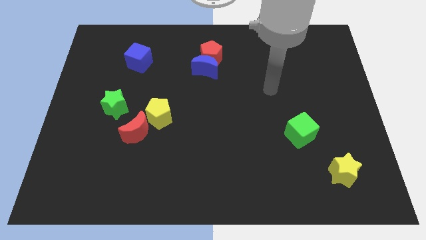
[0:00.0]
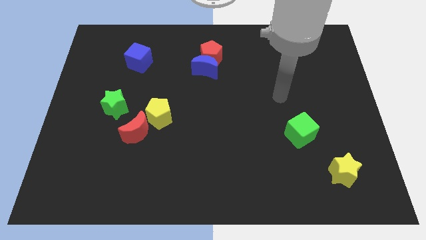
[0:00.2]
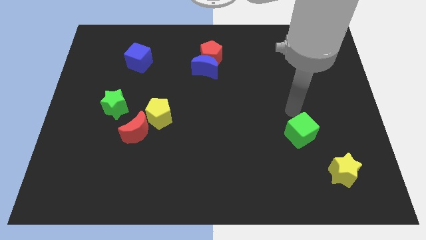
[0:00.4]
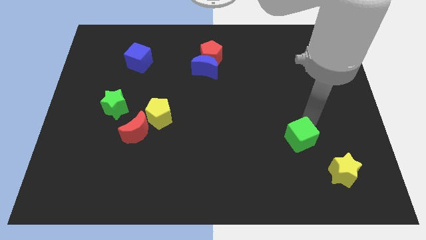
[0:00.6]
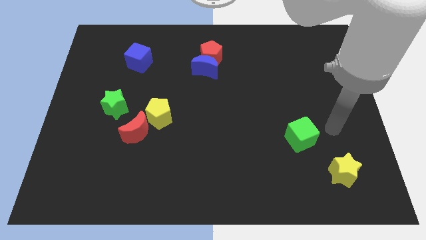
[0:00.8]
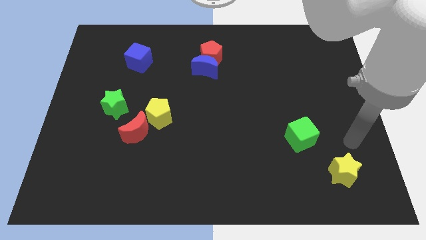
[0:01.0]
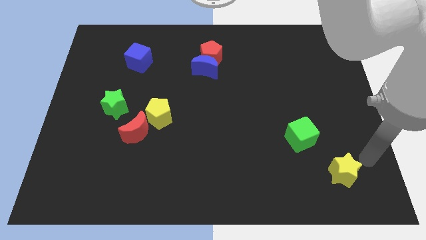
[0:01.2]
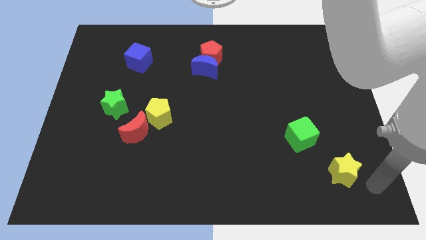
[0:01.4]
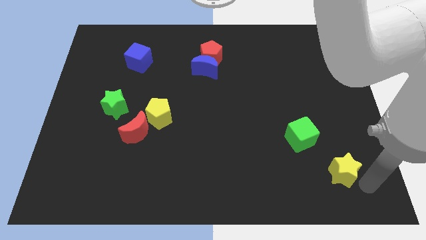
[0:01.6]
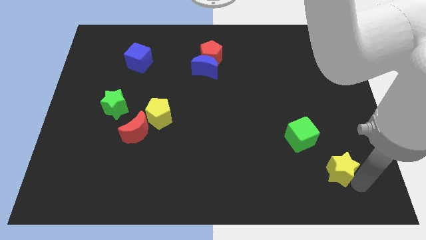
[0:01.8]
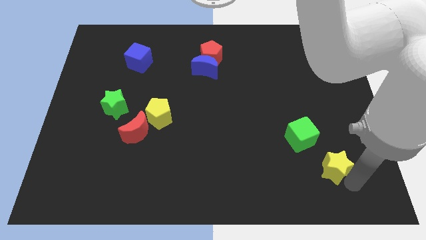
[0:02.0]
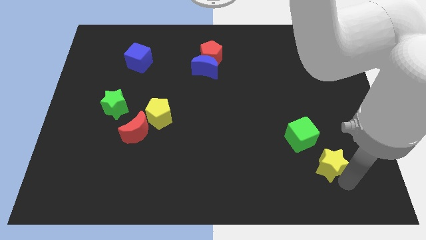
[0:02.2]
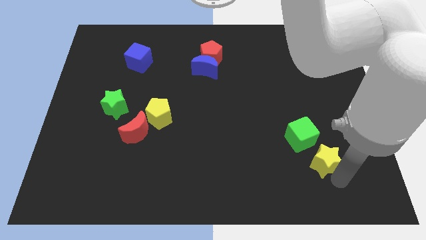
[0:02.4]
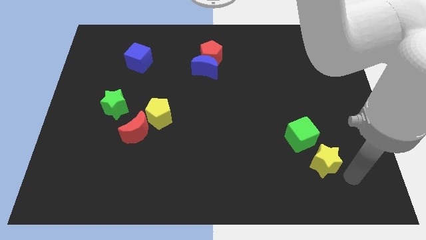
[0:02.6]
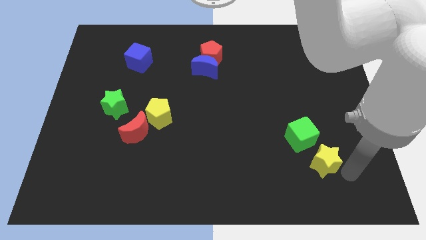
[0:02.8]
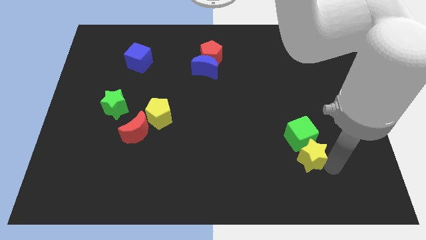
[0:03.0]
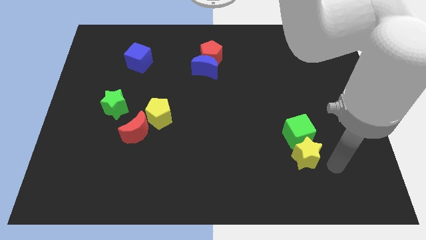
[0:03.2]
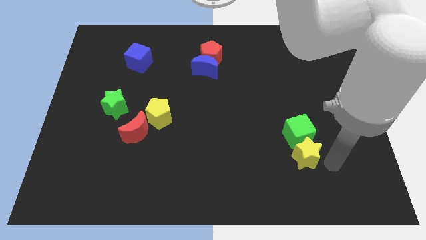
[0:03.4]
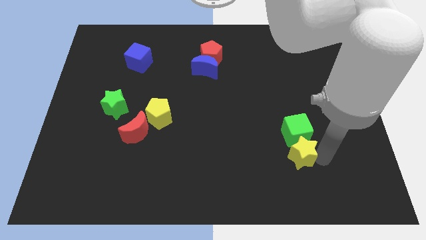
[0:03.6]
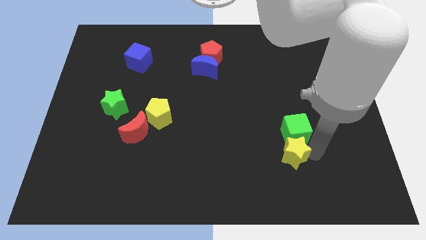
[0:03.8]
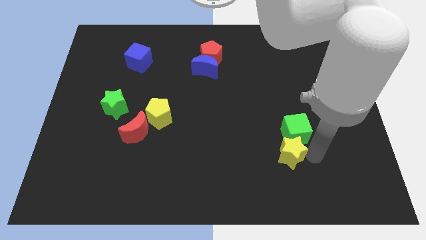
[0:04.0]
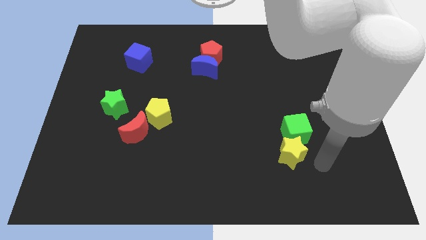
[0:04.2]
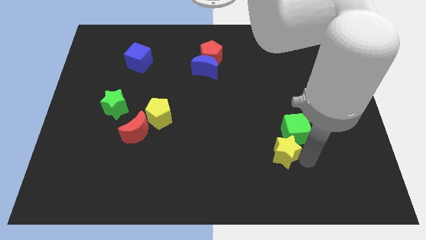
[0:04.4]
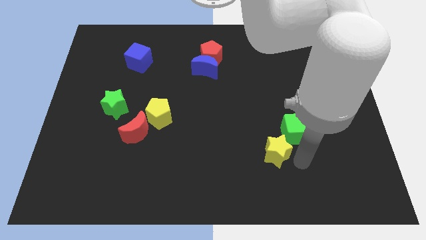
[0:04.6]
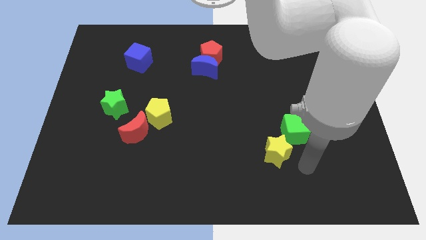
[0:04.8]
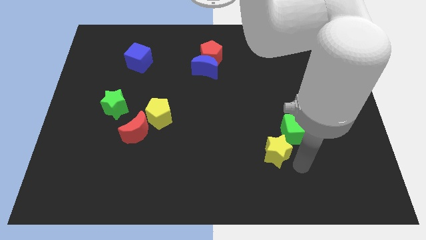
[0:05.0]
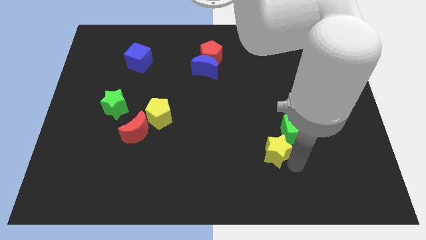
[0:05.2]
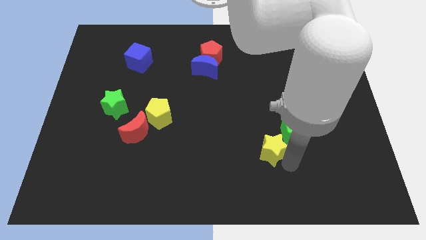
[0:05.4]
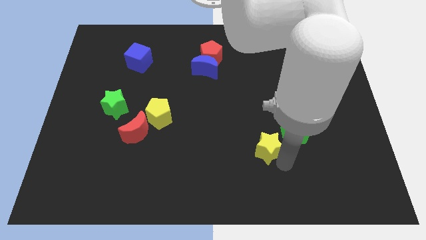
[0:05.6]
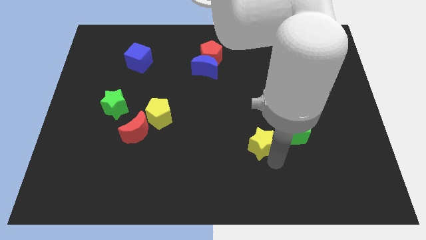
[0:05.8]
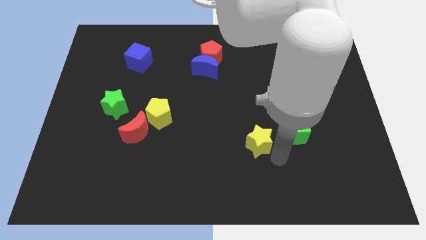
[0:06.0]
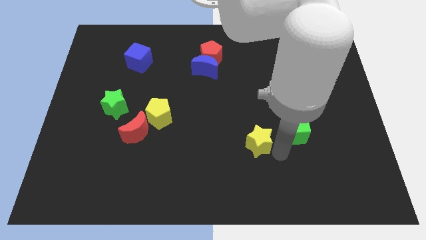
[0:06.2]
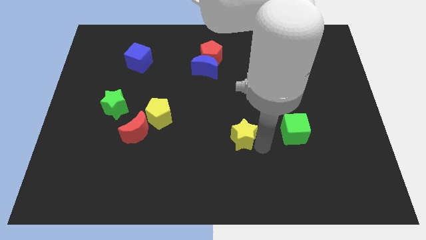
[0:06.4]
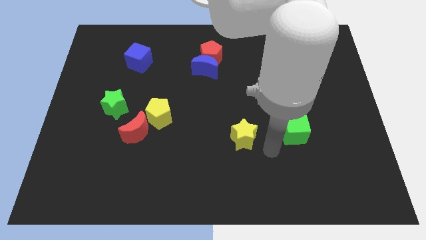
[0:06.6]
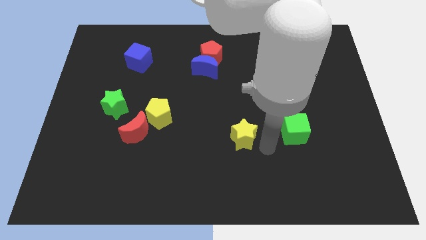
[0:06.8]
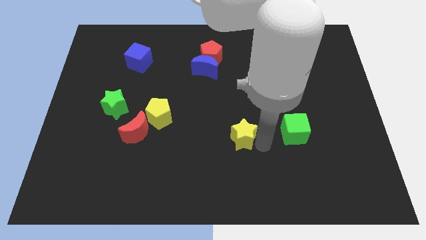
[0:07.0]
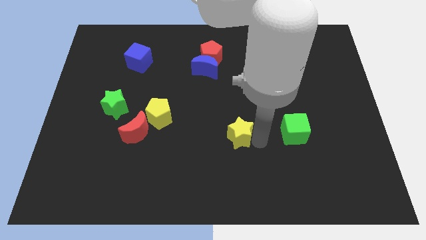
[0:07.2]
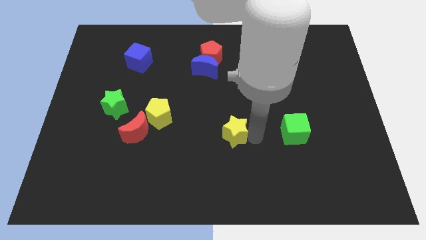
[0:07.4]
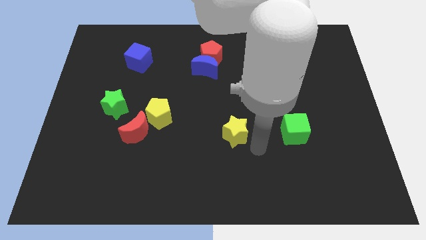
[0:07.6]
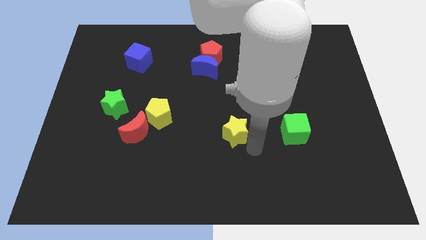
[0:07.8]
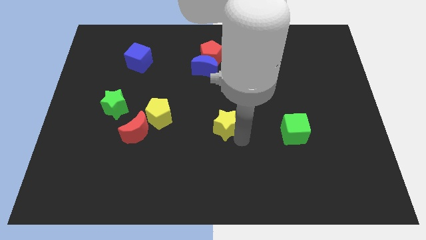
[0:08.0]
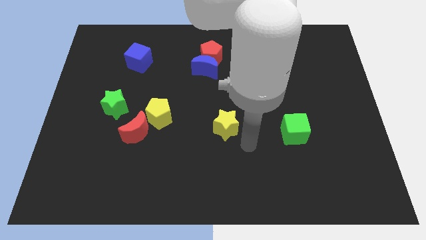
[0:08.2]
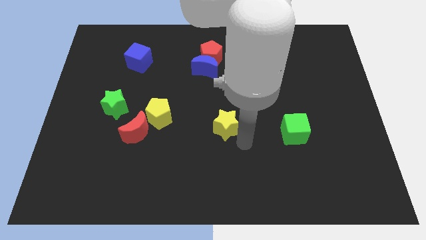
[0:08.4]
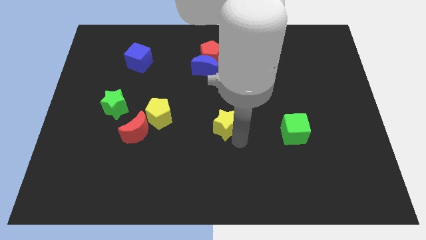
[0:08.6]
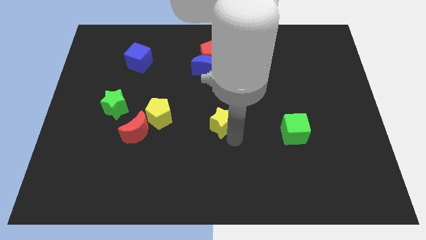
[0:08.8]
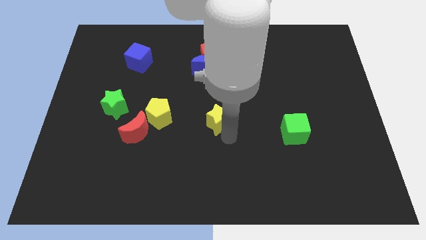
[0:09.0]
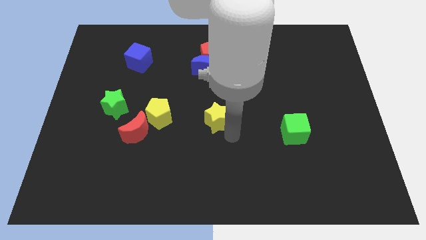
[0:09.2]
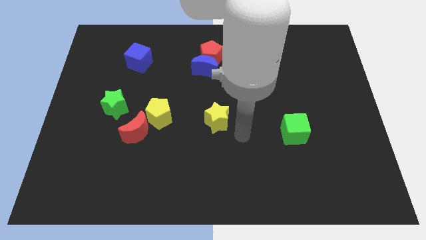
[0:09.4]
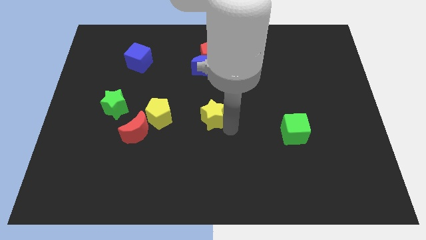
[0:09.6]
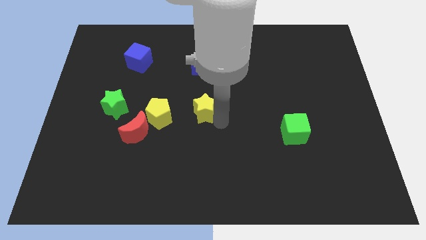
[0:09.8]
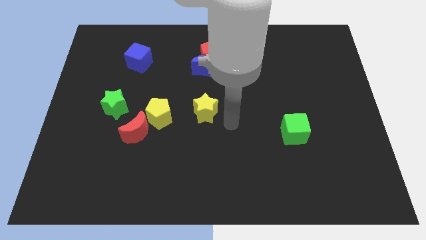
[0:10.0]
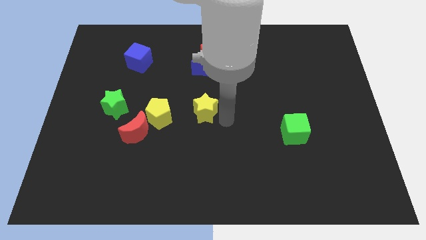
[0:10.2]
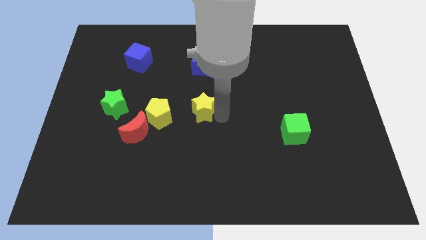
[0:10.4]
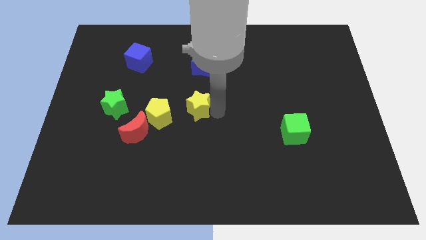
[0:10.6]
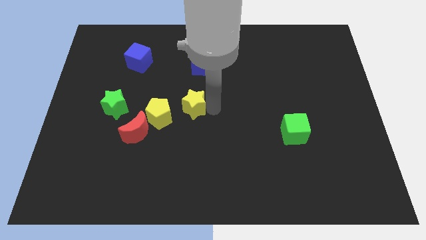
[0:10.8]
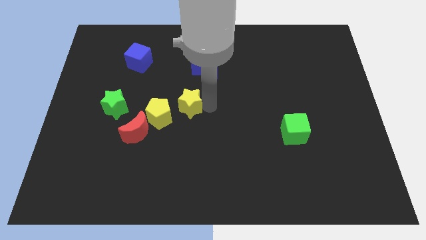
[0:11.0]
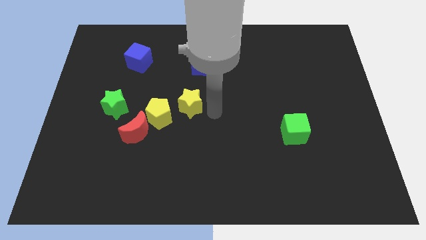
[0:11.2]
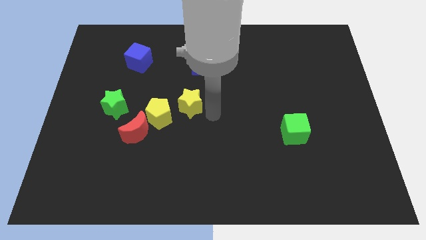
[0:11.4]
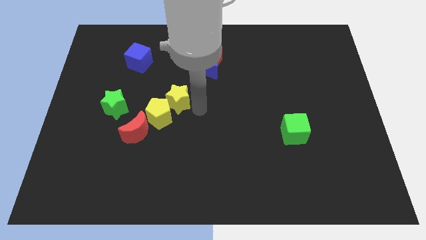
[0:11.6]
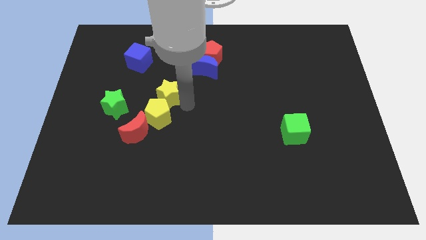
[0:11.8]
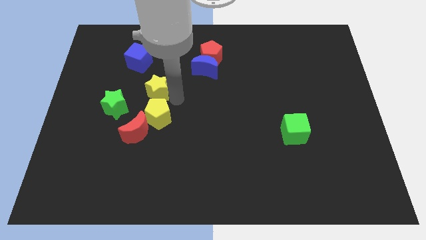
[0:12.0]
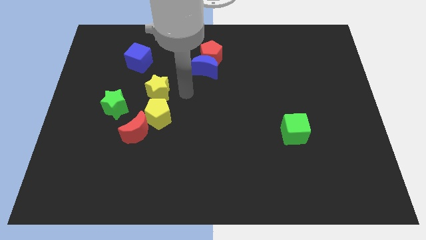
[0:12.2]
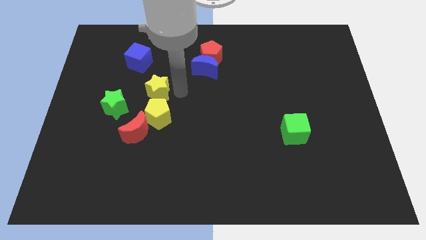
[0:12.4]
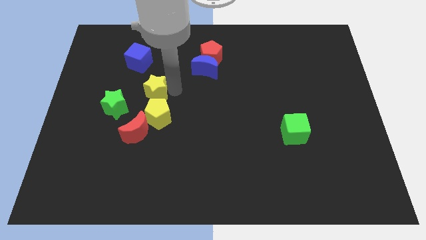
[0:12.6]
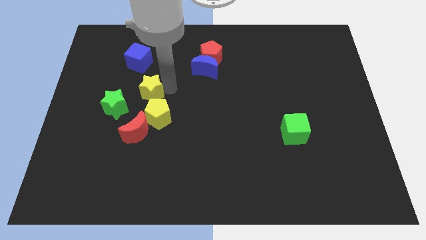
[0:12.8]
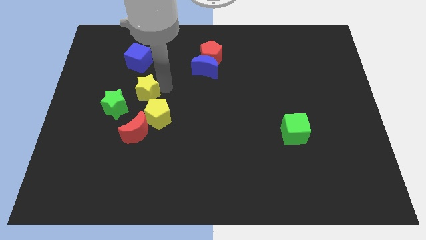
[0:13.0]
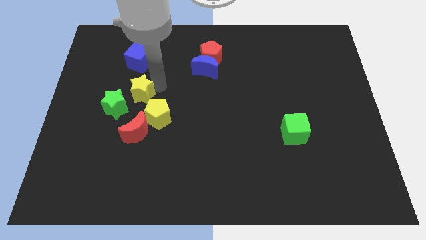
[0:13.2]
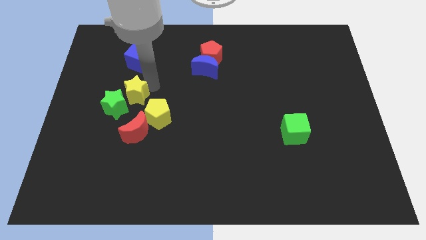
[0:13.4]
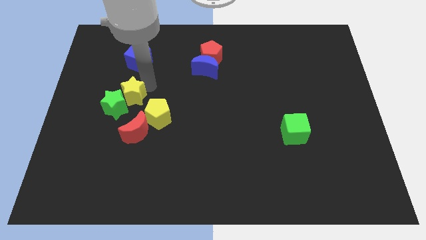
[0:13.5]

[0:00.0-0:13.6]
move the yellow star next to the green star

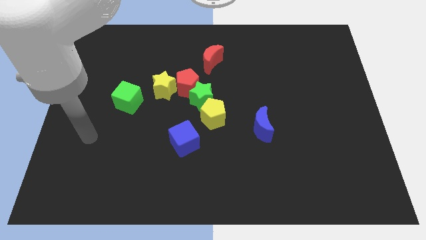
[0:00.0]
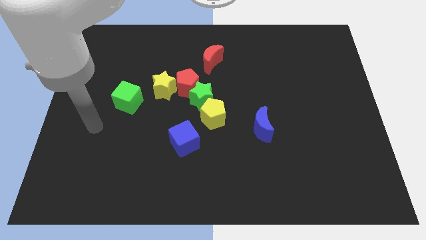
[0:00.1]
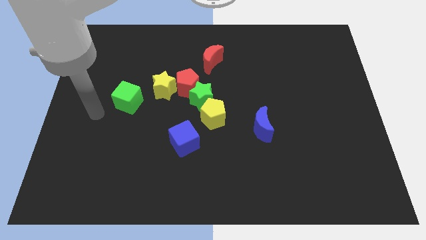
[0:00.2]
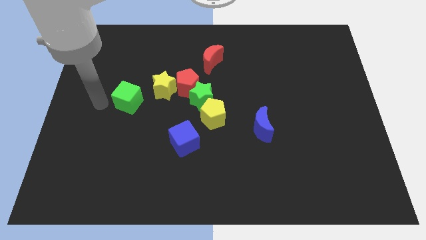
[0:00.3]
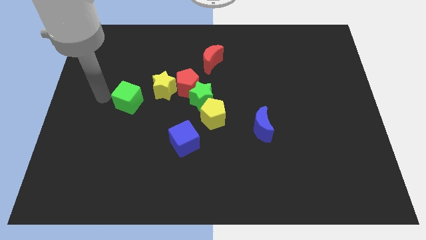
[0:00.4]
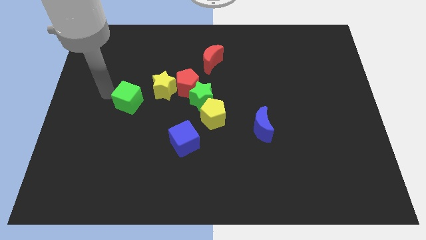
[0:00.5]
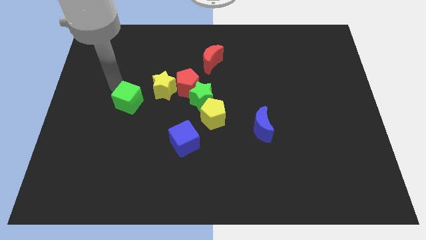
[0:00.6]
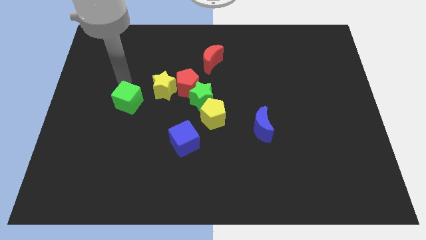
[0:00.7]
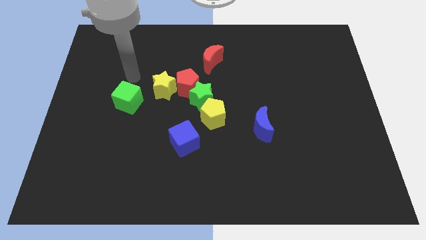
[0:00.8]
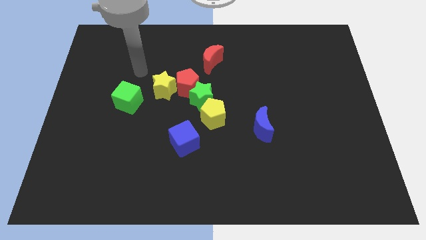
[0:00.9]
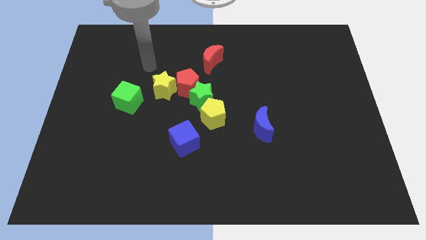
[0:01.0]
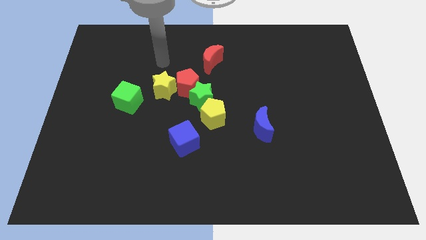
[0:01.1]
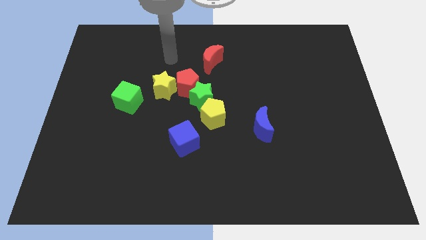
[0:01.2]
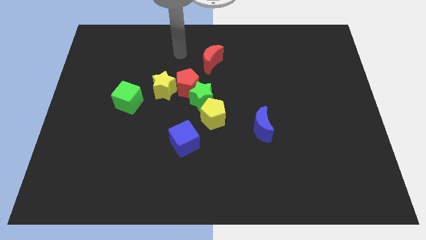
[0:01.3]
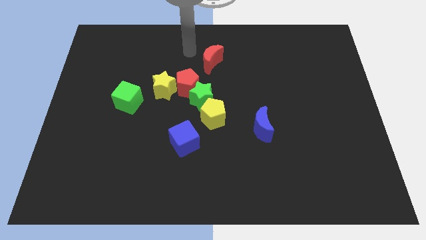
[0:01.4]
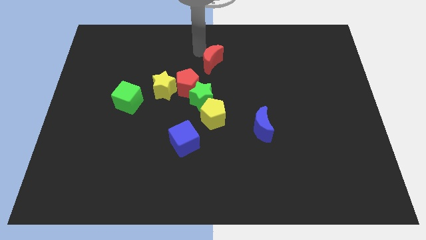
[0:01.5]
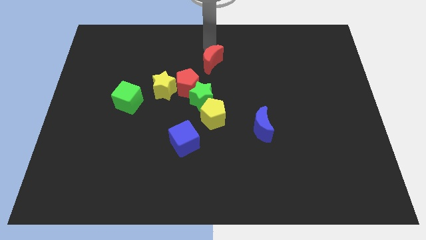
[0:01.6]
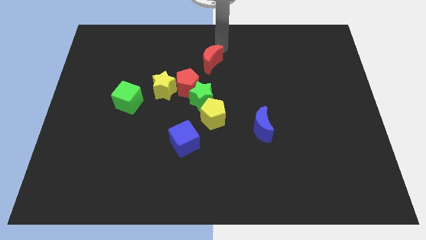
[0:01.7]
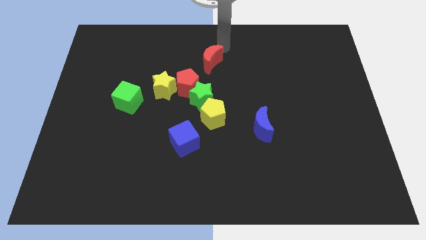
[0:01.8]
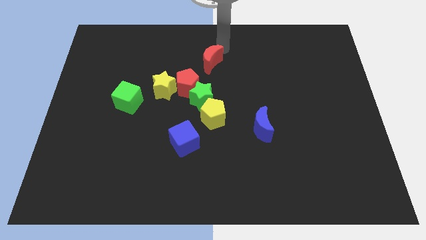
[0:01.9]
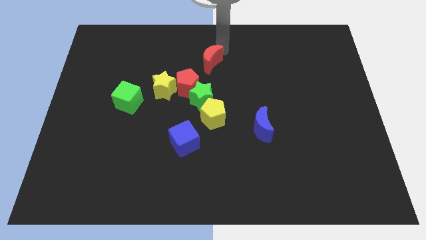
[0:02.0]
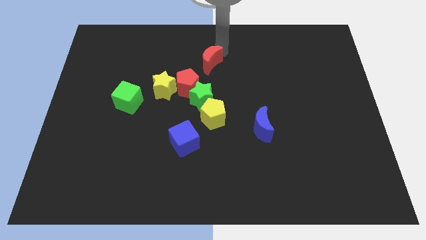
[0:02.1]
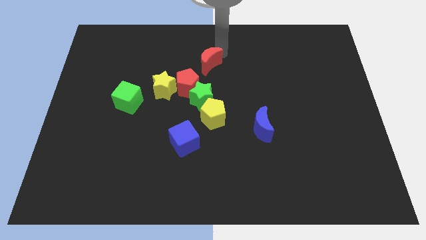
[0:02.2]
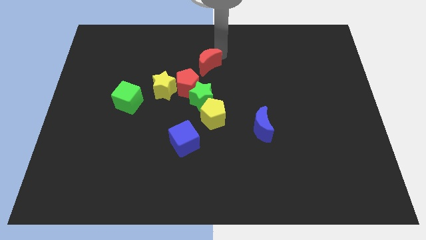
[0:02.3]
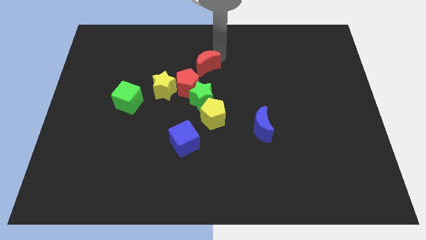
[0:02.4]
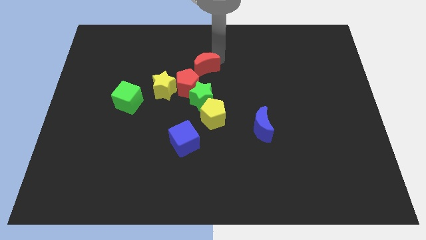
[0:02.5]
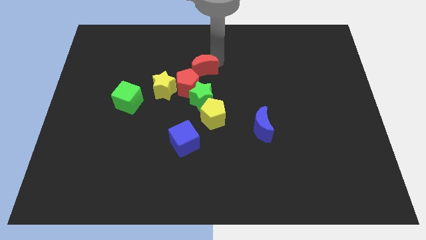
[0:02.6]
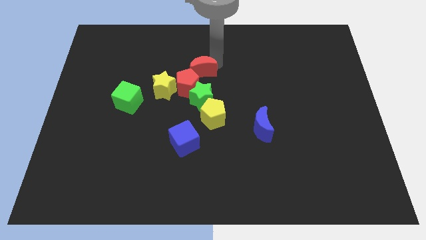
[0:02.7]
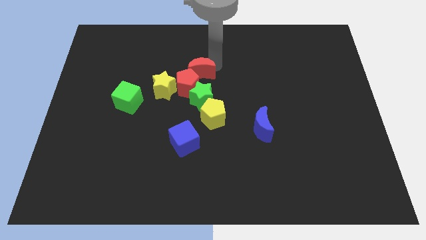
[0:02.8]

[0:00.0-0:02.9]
put the red moon next to the red pentagon
